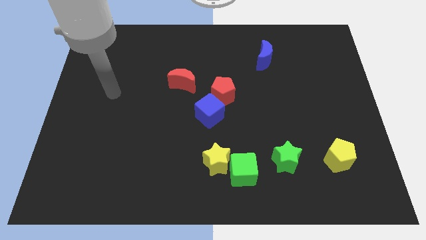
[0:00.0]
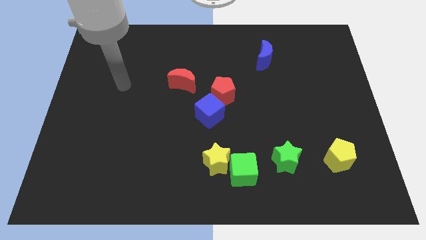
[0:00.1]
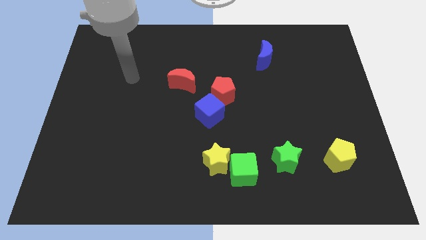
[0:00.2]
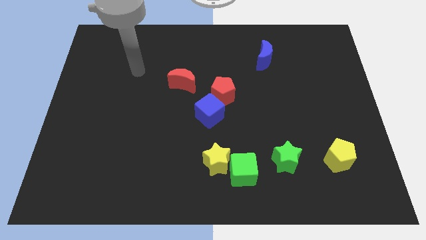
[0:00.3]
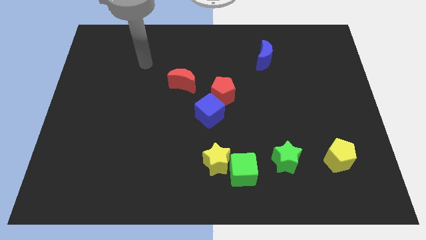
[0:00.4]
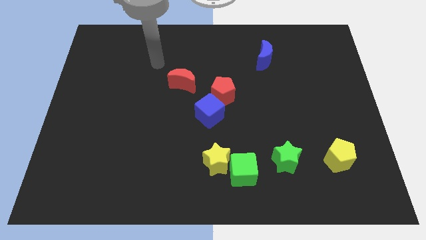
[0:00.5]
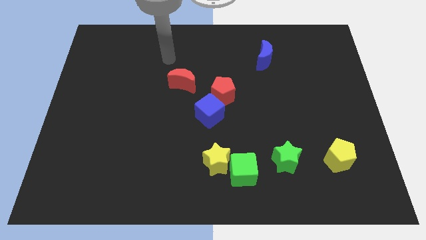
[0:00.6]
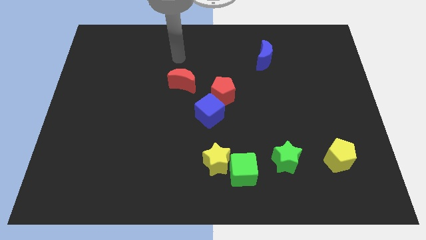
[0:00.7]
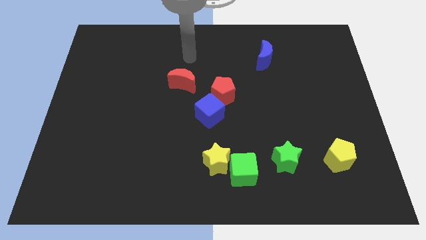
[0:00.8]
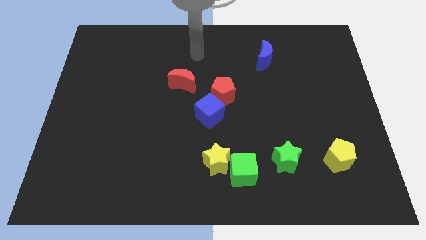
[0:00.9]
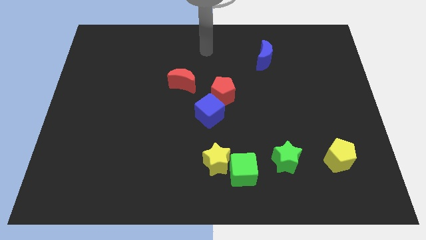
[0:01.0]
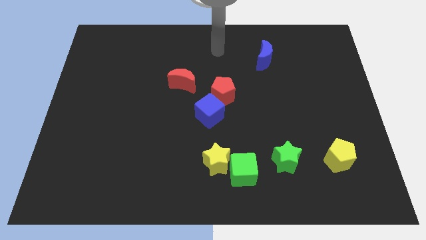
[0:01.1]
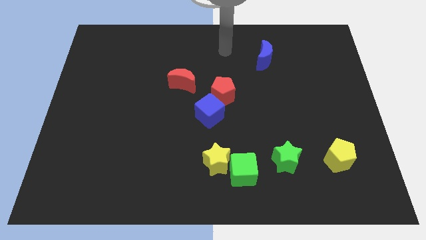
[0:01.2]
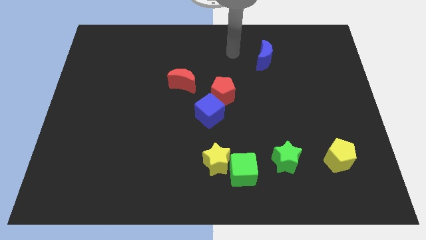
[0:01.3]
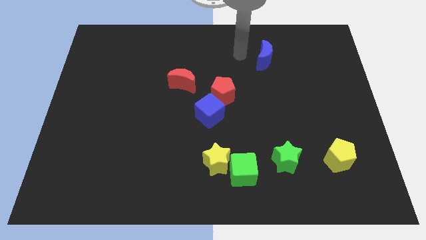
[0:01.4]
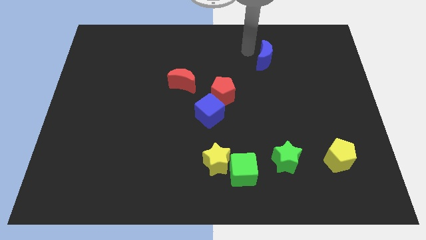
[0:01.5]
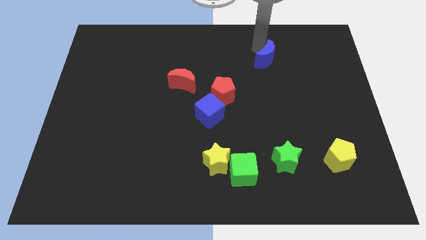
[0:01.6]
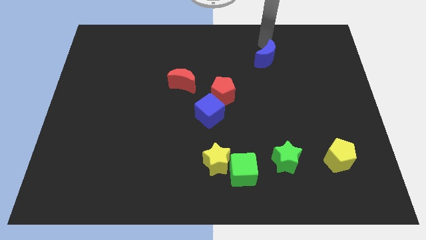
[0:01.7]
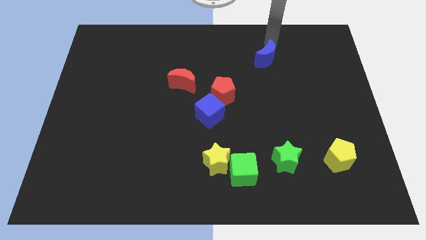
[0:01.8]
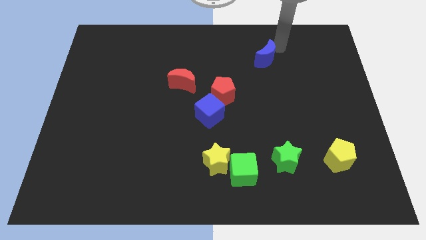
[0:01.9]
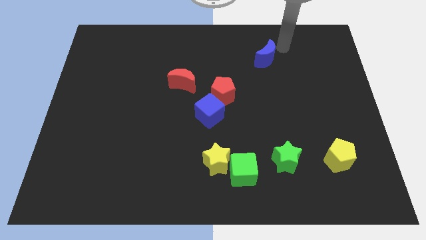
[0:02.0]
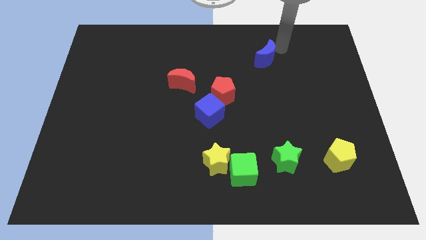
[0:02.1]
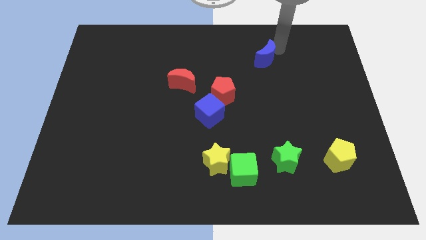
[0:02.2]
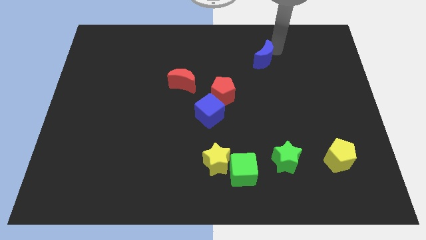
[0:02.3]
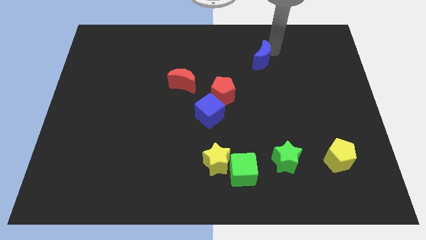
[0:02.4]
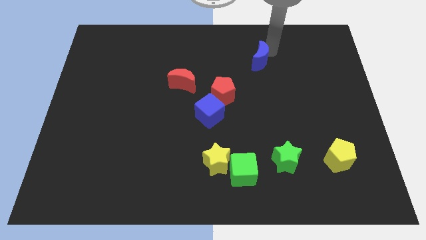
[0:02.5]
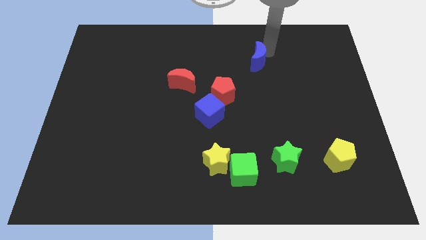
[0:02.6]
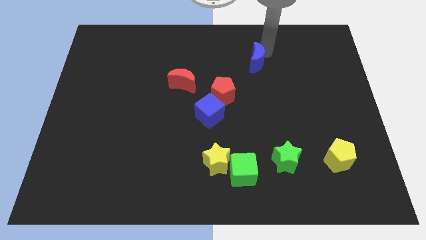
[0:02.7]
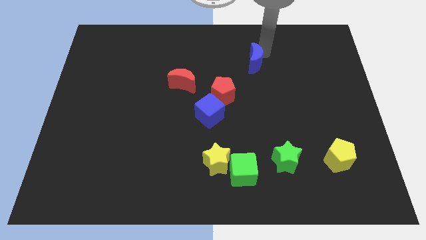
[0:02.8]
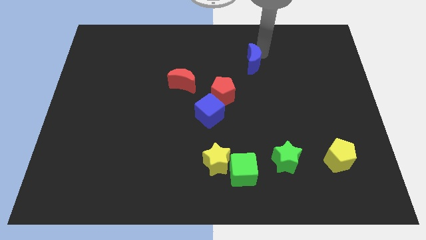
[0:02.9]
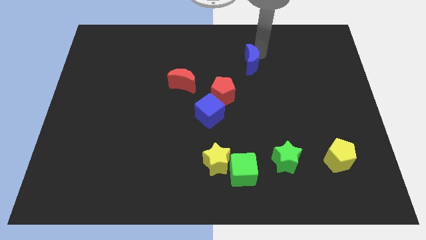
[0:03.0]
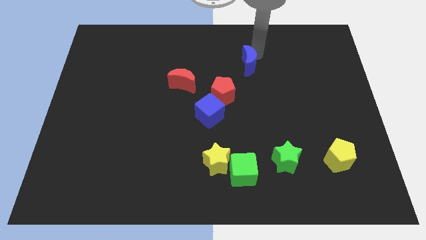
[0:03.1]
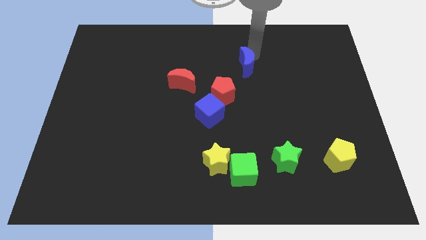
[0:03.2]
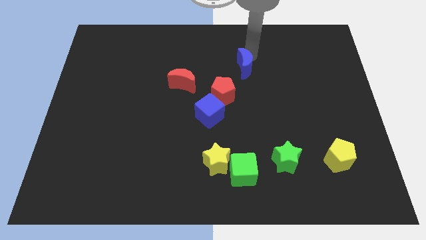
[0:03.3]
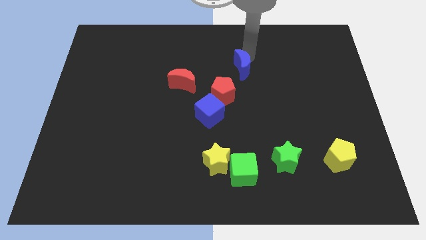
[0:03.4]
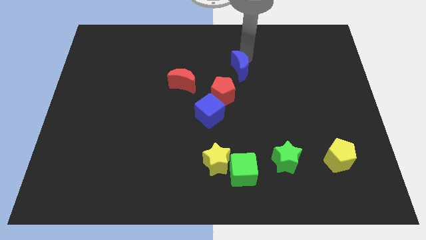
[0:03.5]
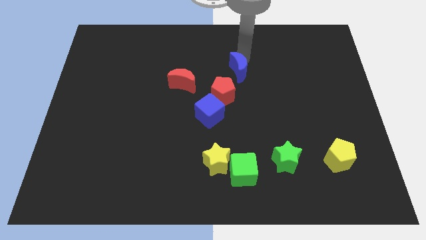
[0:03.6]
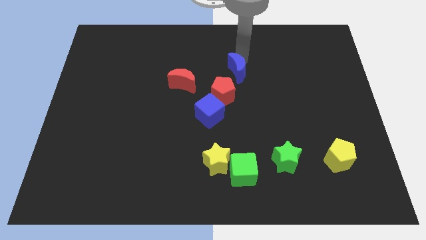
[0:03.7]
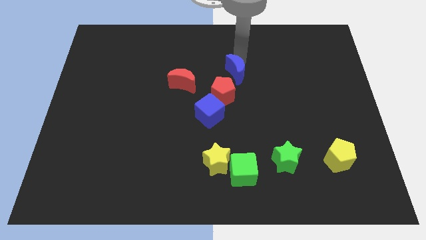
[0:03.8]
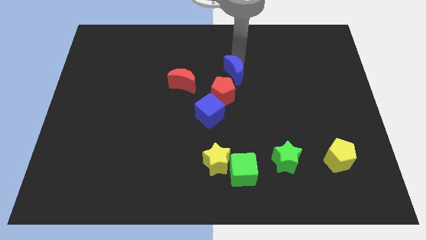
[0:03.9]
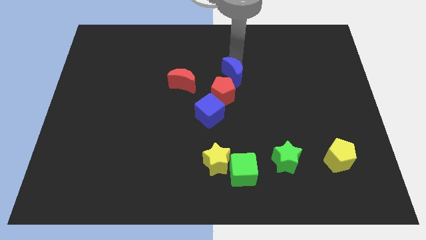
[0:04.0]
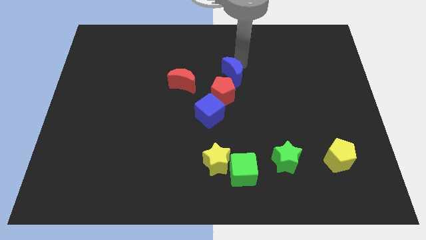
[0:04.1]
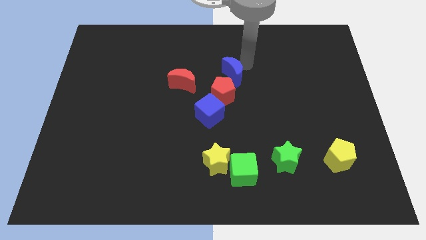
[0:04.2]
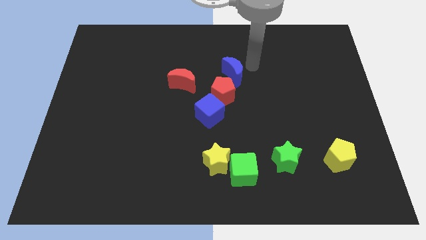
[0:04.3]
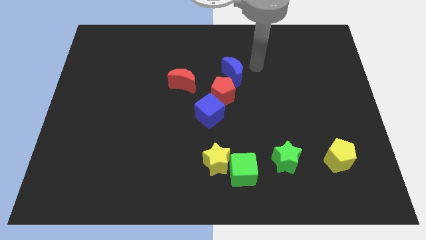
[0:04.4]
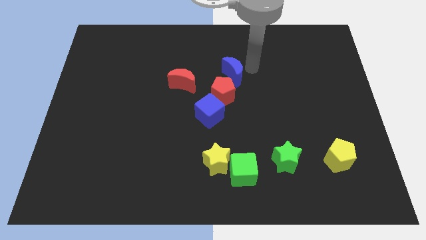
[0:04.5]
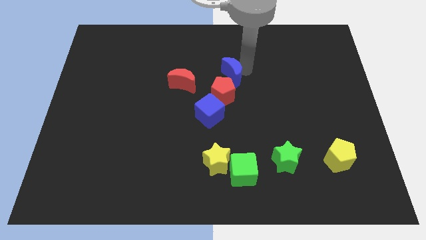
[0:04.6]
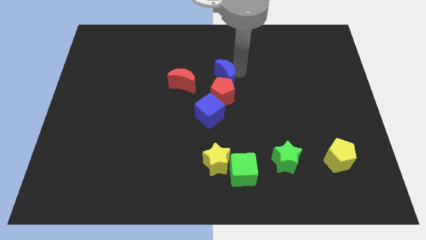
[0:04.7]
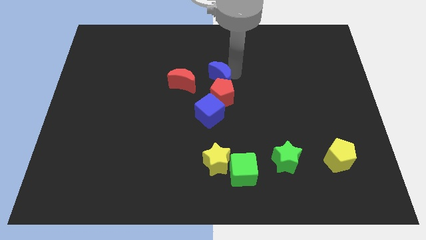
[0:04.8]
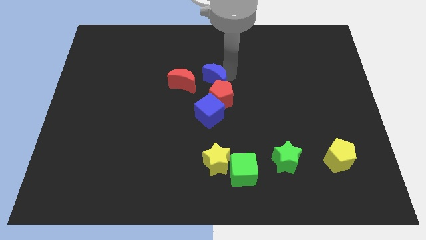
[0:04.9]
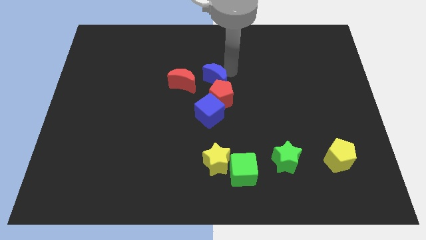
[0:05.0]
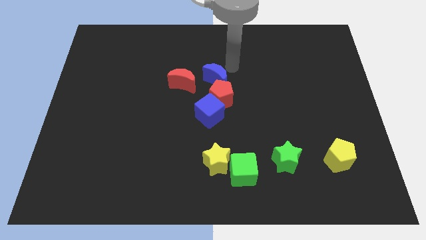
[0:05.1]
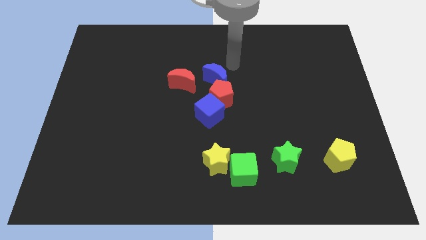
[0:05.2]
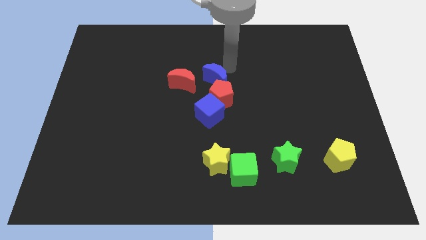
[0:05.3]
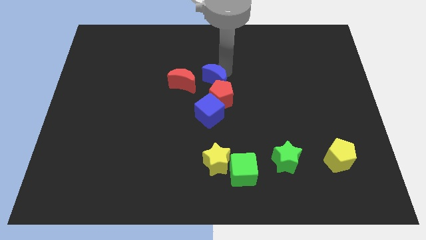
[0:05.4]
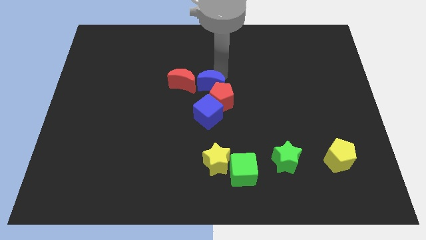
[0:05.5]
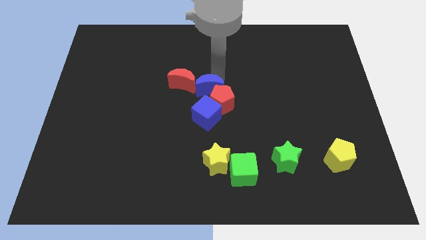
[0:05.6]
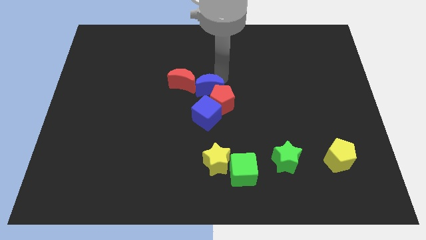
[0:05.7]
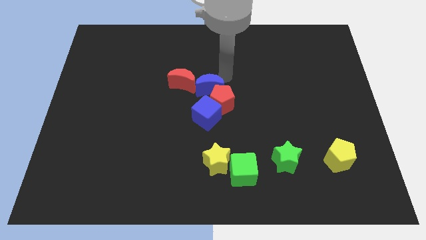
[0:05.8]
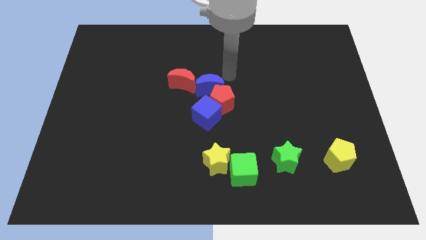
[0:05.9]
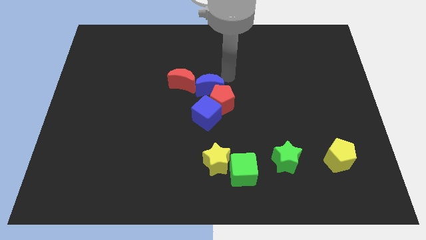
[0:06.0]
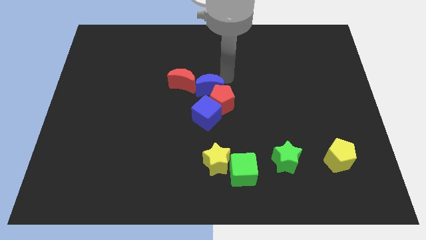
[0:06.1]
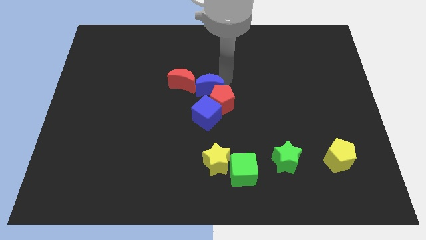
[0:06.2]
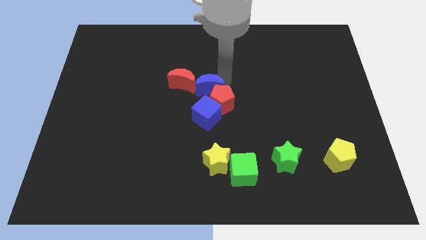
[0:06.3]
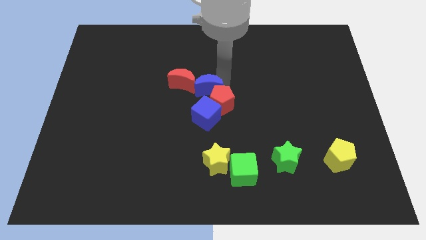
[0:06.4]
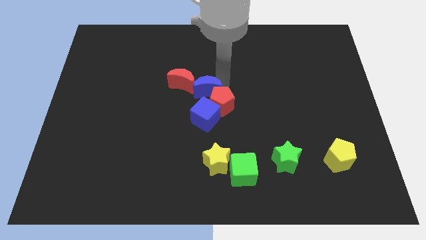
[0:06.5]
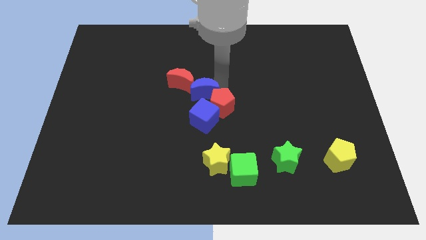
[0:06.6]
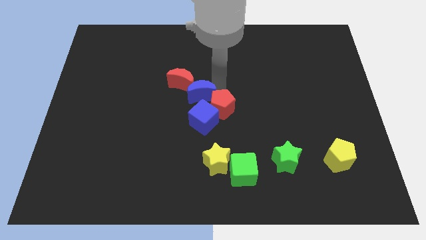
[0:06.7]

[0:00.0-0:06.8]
move the blue moon to the bottom side of the red moon

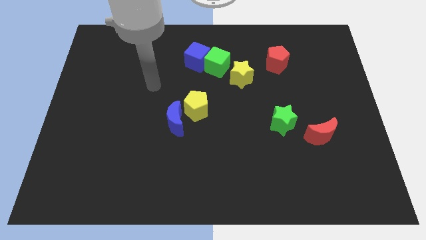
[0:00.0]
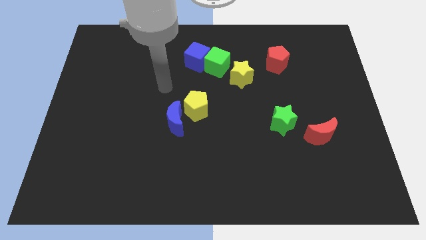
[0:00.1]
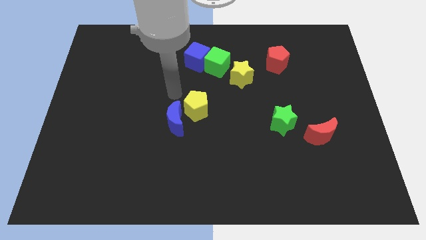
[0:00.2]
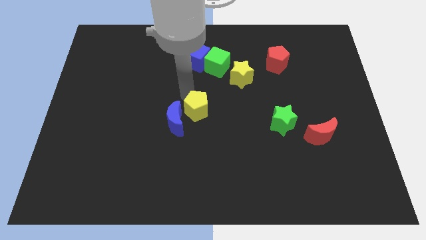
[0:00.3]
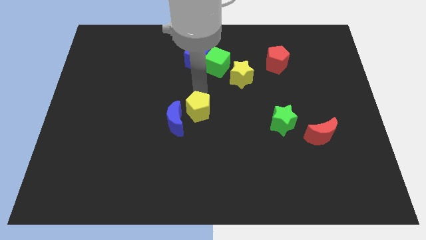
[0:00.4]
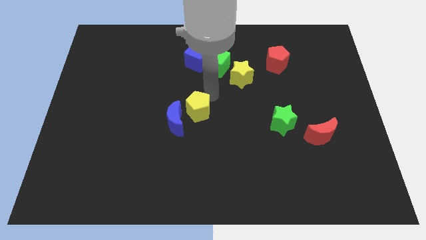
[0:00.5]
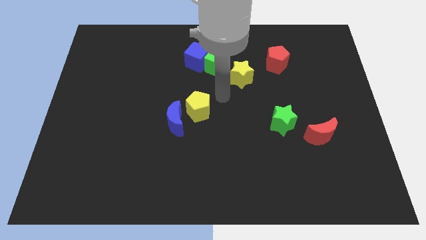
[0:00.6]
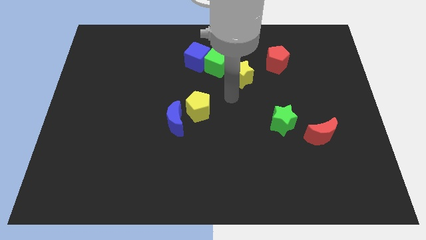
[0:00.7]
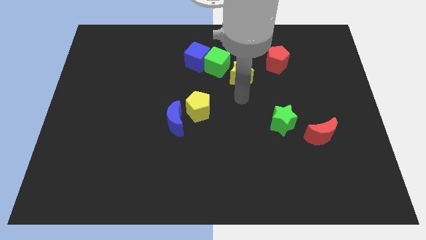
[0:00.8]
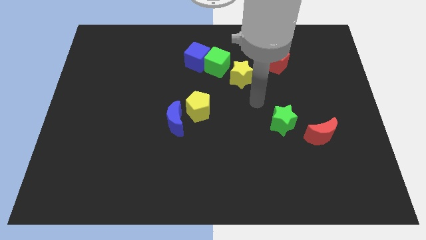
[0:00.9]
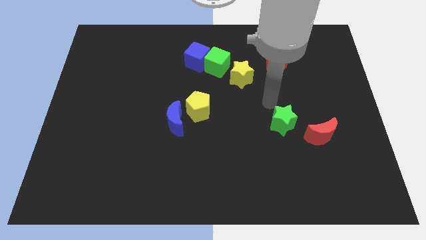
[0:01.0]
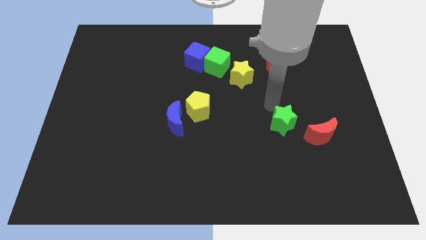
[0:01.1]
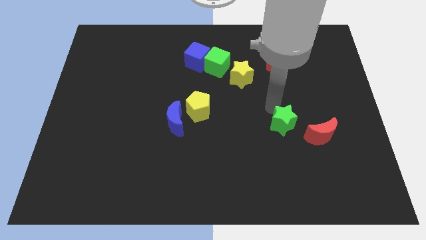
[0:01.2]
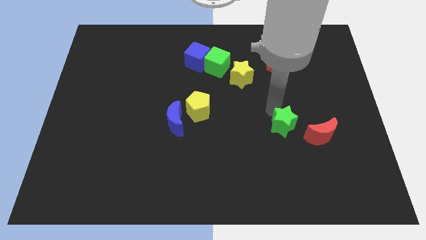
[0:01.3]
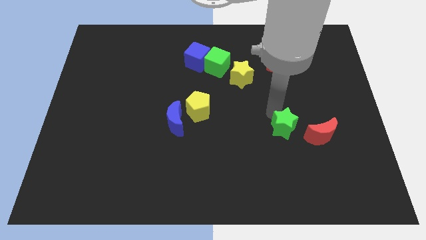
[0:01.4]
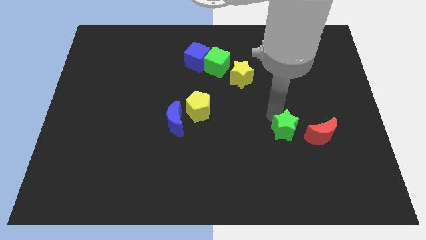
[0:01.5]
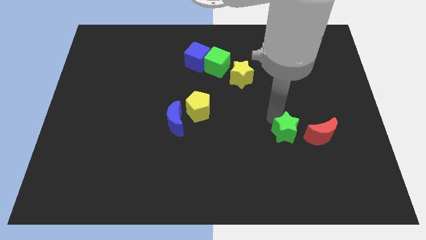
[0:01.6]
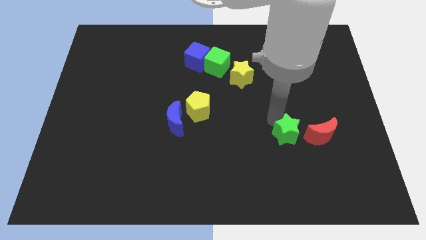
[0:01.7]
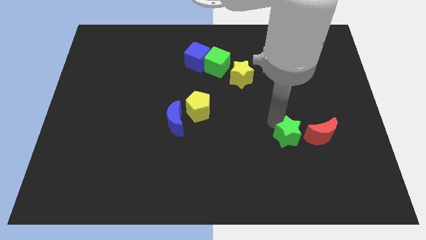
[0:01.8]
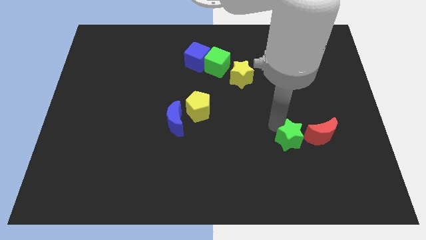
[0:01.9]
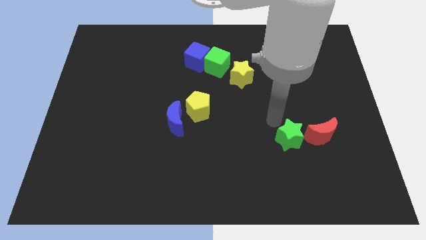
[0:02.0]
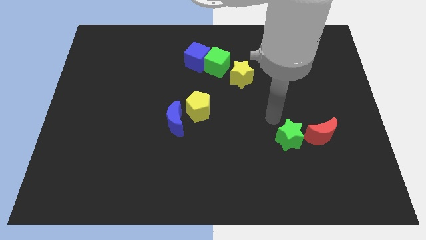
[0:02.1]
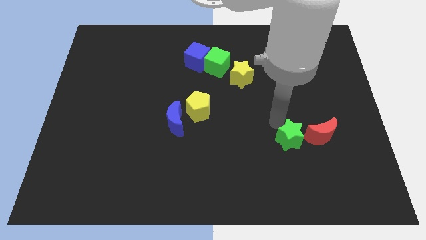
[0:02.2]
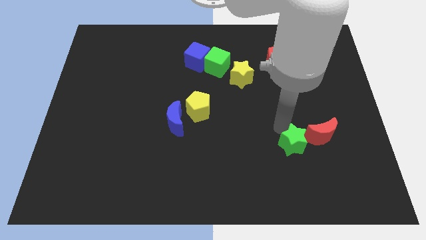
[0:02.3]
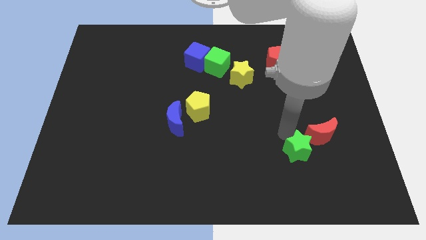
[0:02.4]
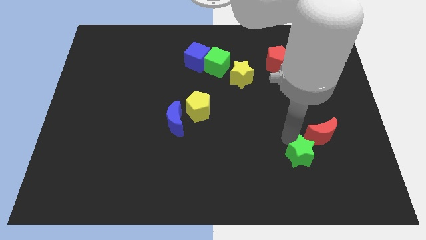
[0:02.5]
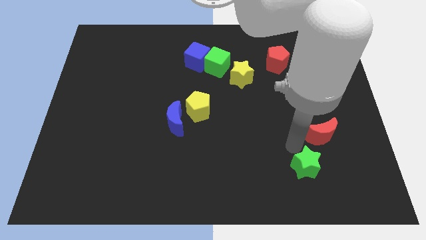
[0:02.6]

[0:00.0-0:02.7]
put the green star to the bottom side of the red moon
